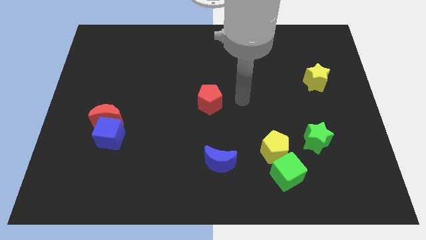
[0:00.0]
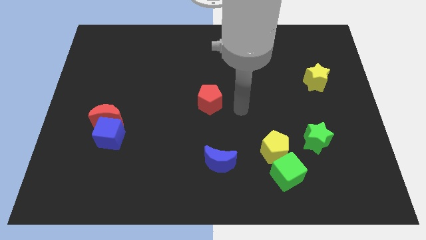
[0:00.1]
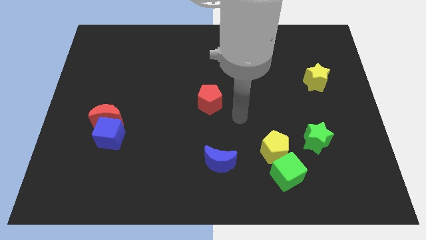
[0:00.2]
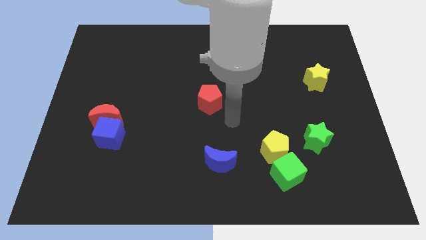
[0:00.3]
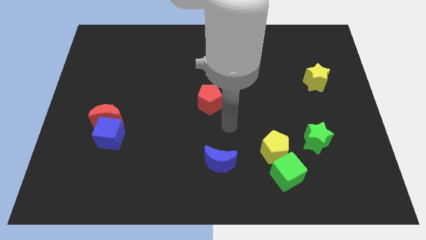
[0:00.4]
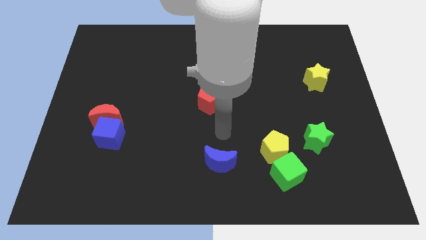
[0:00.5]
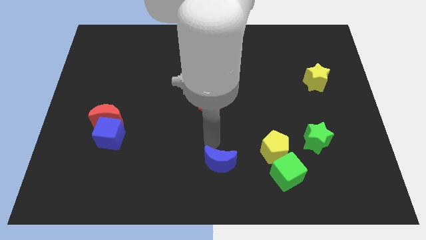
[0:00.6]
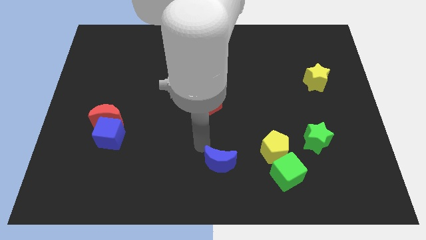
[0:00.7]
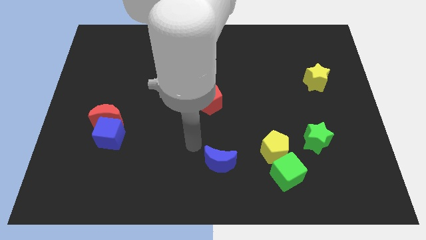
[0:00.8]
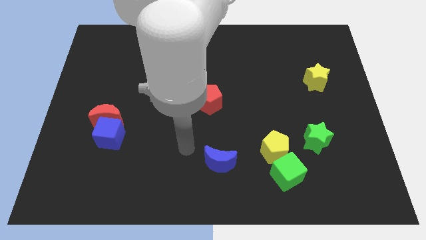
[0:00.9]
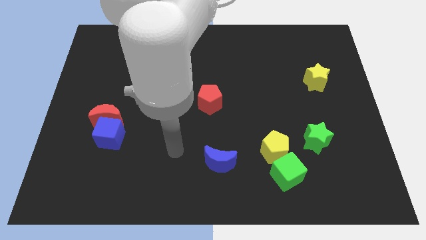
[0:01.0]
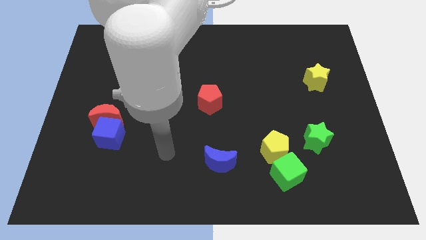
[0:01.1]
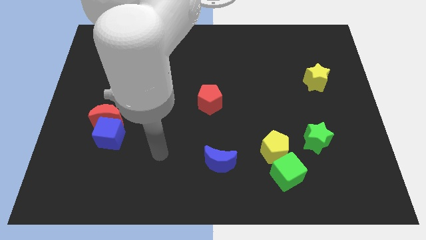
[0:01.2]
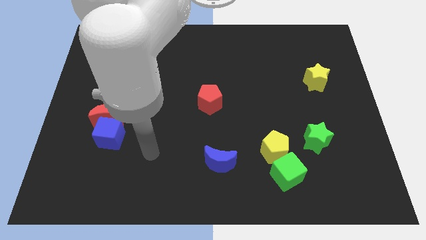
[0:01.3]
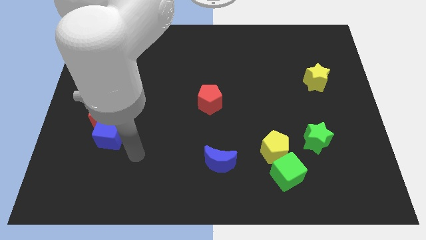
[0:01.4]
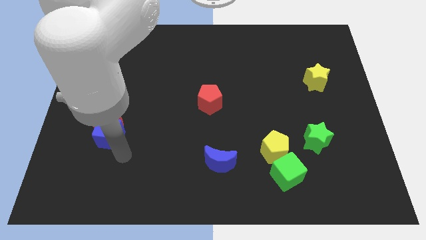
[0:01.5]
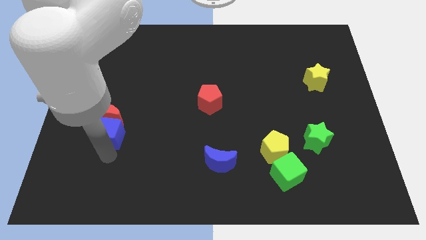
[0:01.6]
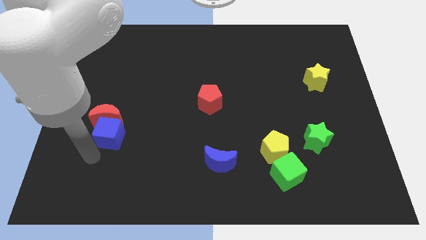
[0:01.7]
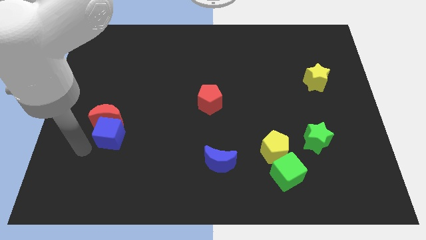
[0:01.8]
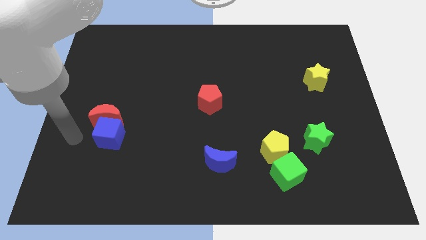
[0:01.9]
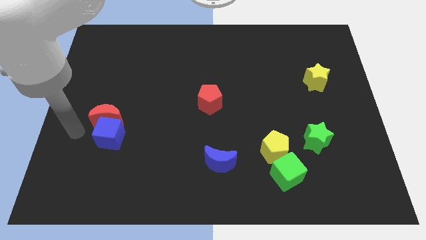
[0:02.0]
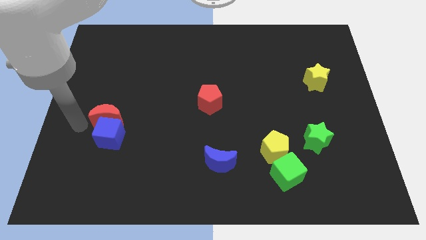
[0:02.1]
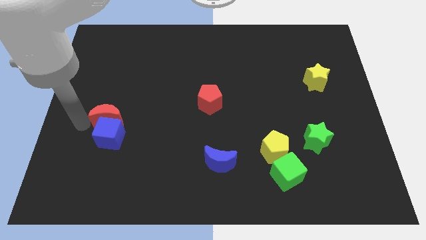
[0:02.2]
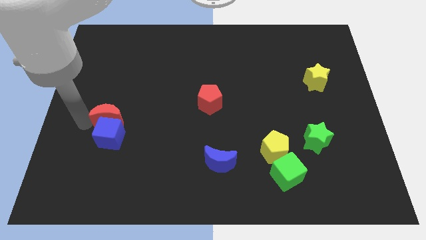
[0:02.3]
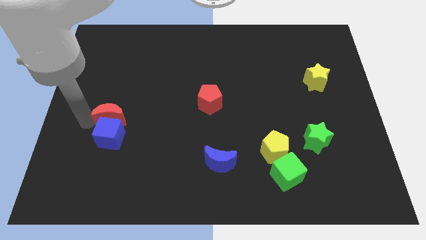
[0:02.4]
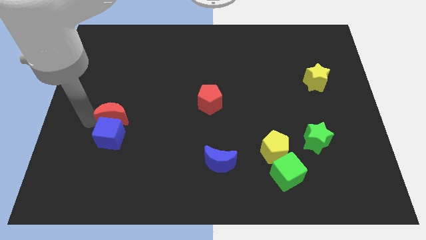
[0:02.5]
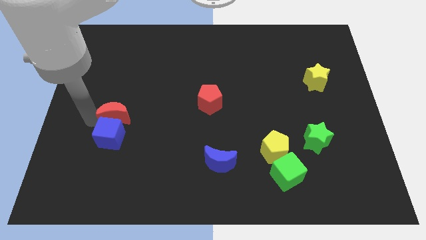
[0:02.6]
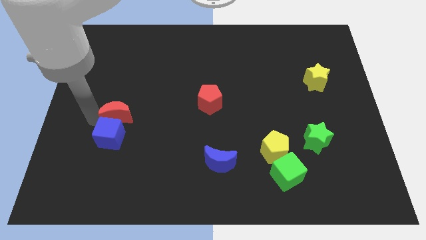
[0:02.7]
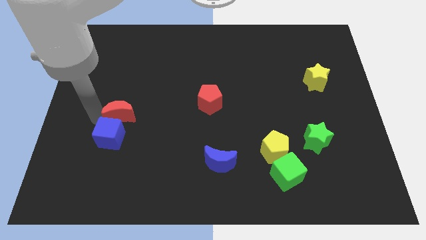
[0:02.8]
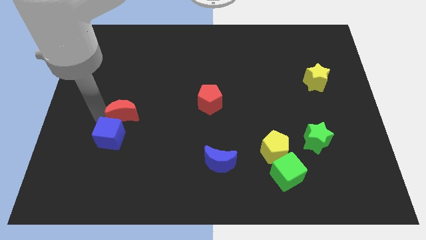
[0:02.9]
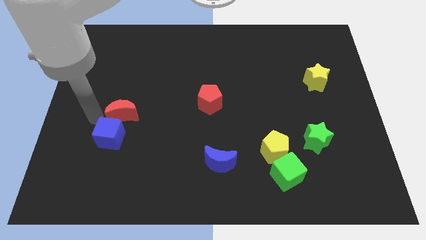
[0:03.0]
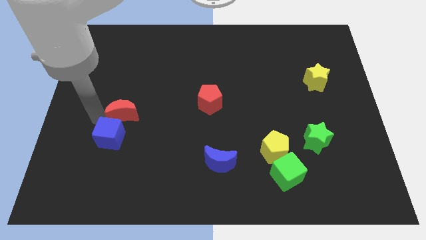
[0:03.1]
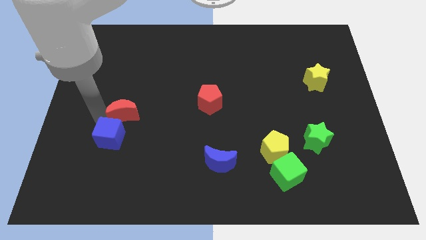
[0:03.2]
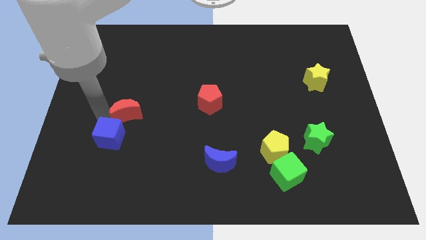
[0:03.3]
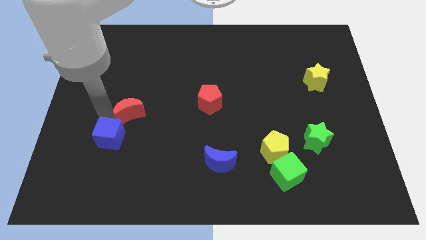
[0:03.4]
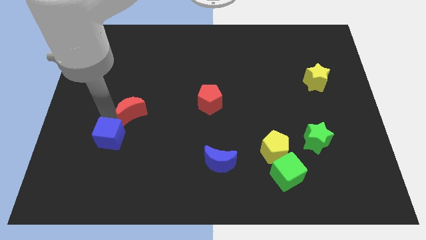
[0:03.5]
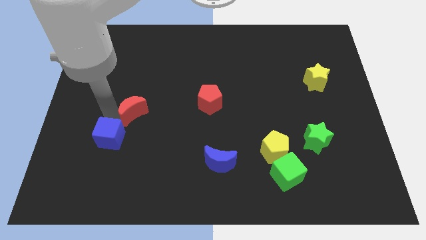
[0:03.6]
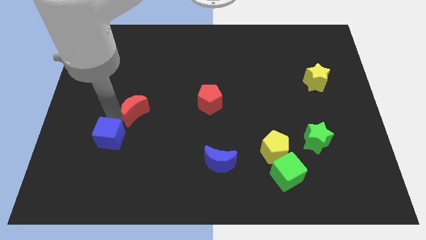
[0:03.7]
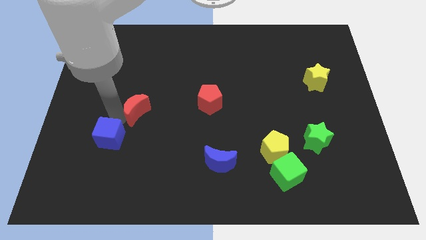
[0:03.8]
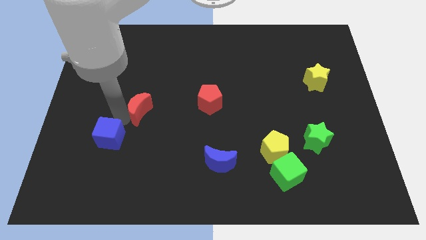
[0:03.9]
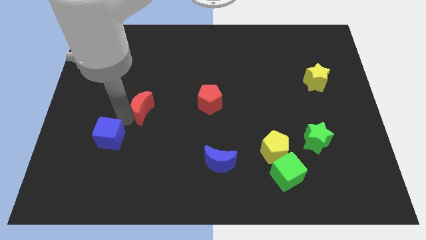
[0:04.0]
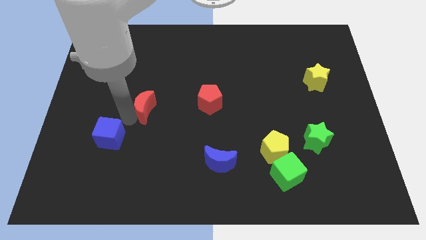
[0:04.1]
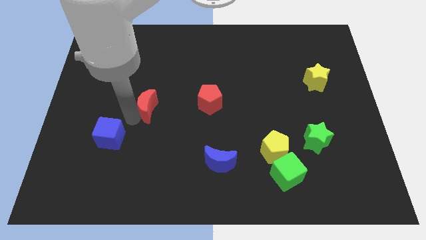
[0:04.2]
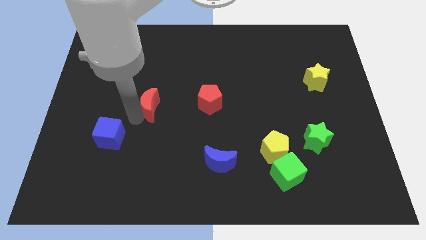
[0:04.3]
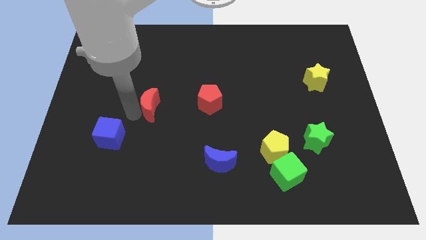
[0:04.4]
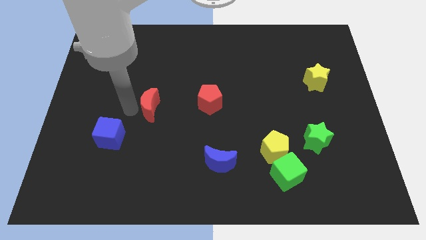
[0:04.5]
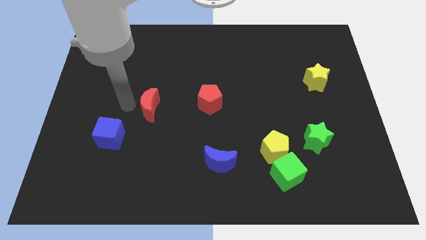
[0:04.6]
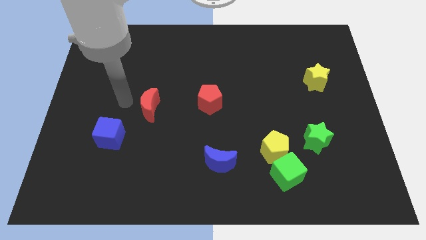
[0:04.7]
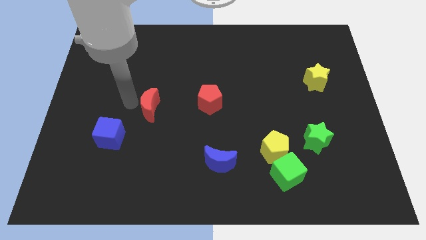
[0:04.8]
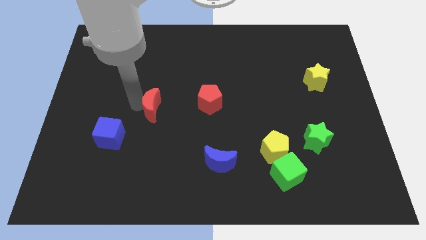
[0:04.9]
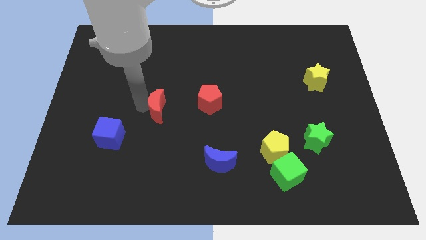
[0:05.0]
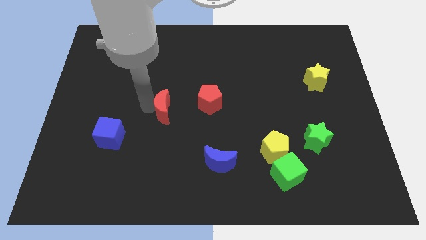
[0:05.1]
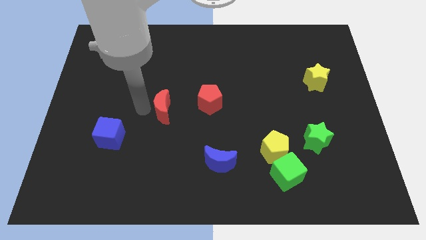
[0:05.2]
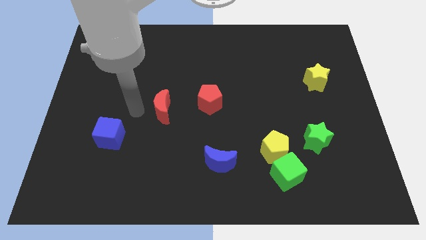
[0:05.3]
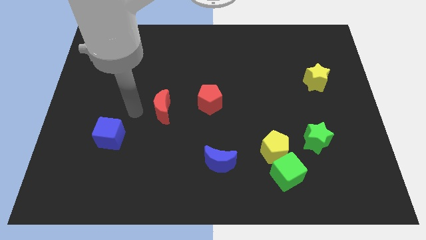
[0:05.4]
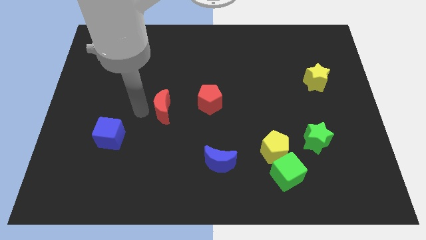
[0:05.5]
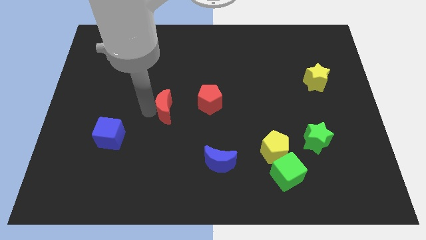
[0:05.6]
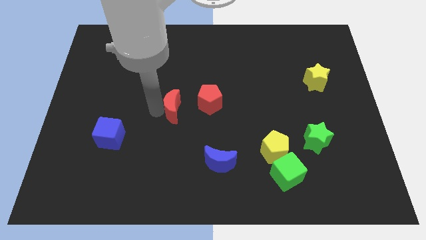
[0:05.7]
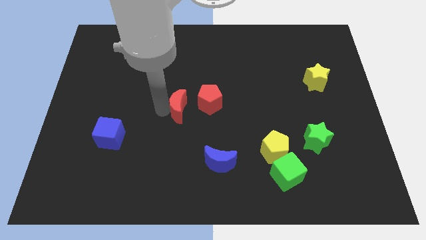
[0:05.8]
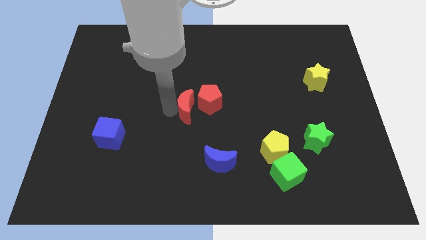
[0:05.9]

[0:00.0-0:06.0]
push the red moon towards the red pentagon

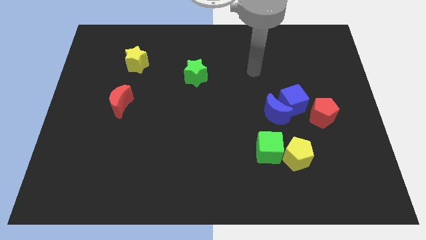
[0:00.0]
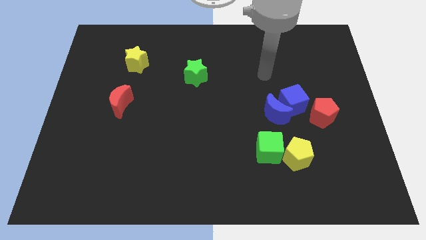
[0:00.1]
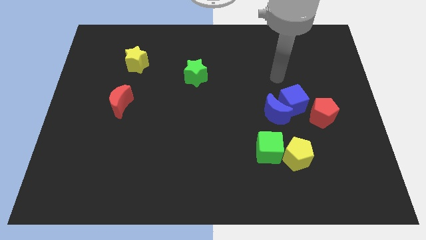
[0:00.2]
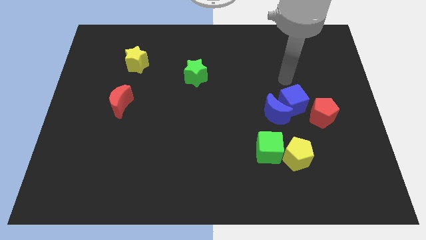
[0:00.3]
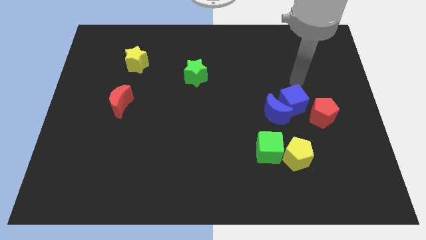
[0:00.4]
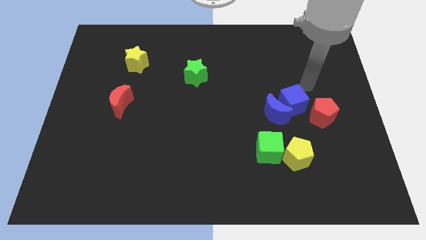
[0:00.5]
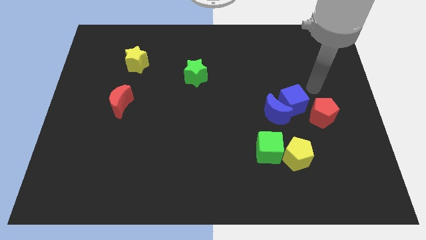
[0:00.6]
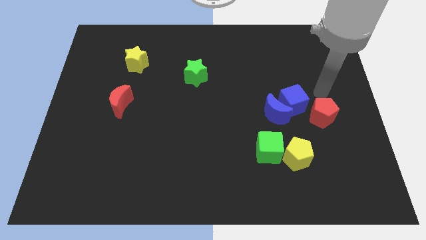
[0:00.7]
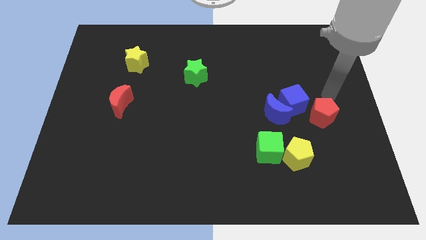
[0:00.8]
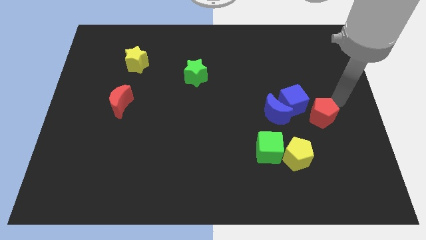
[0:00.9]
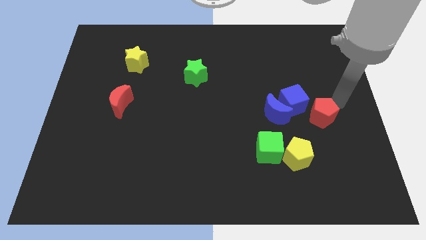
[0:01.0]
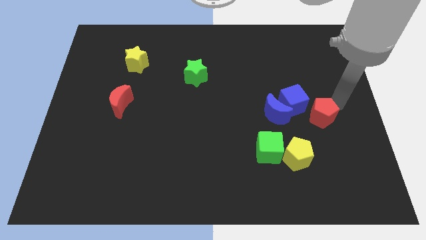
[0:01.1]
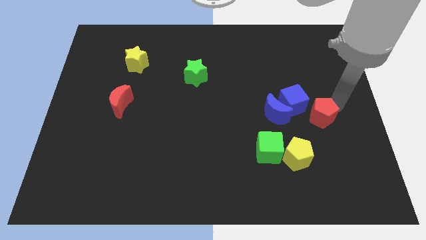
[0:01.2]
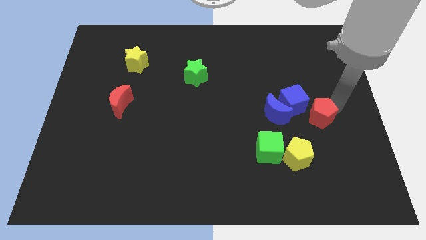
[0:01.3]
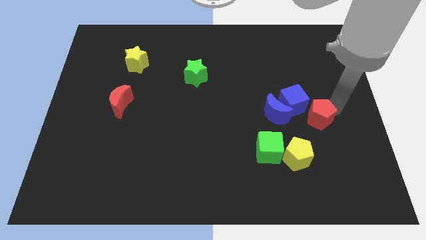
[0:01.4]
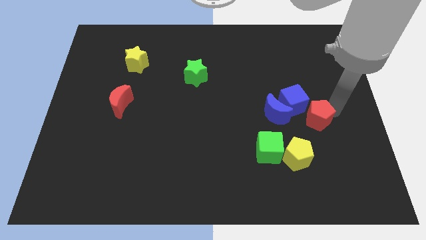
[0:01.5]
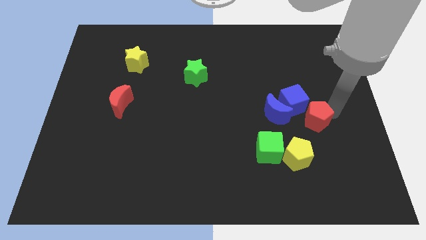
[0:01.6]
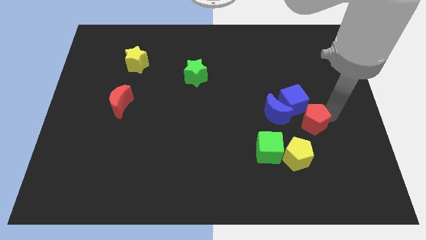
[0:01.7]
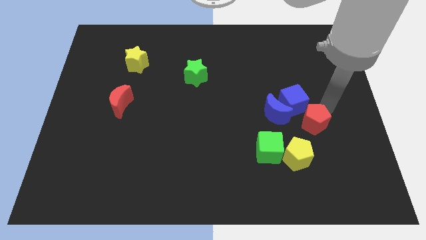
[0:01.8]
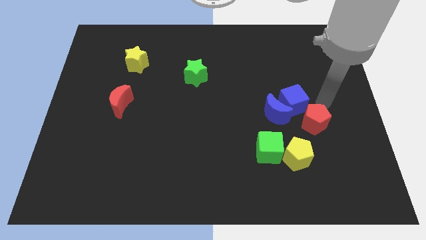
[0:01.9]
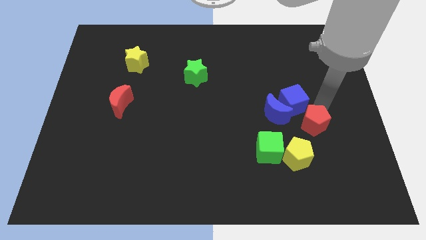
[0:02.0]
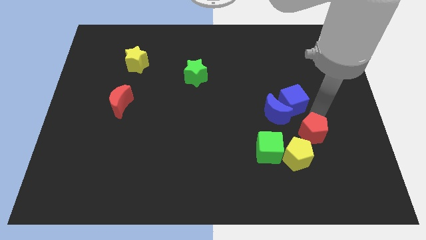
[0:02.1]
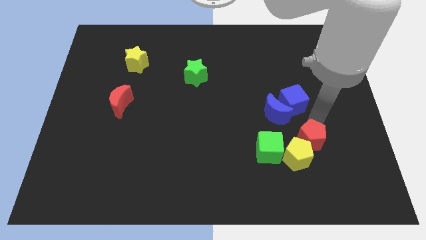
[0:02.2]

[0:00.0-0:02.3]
push the red pentagon towards the yellow pentagon
